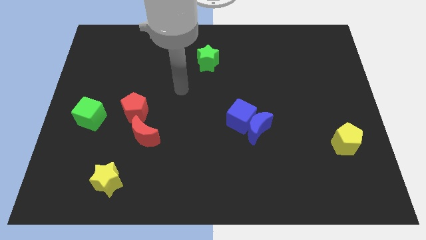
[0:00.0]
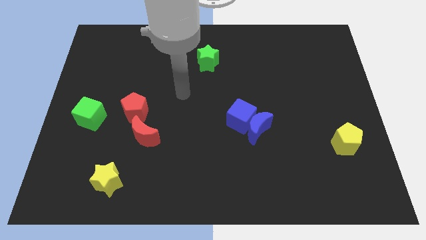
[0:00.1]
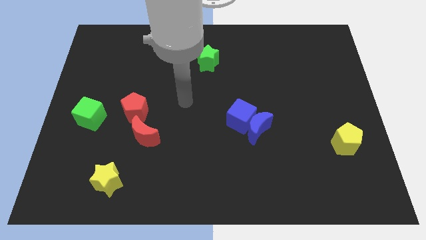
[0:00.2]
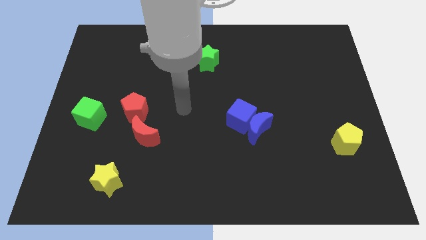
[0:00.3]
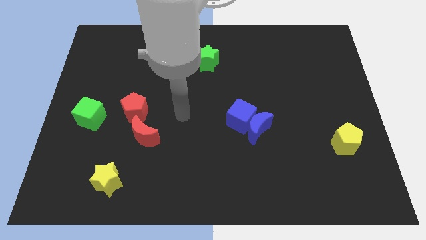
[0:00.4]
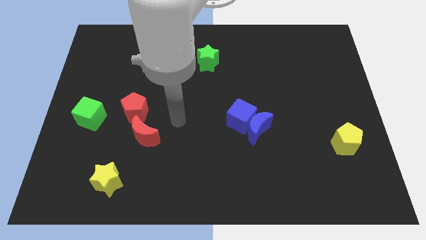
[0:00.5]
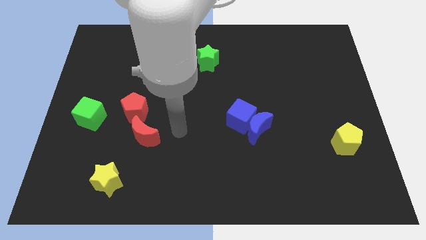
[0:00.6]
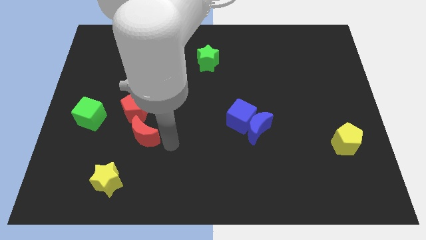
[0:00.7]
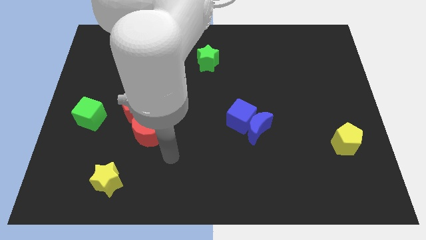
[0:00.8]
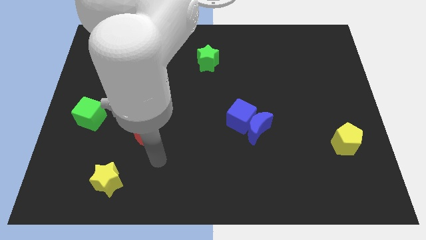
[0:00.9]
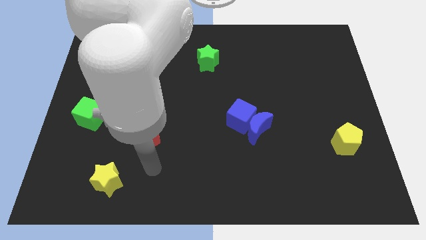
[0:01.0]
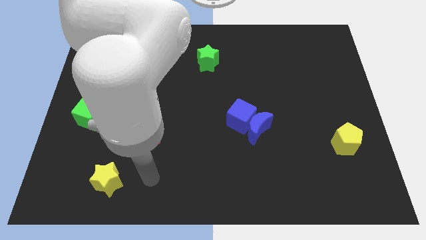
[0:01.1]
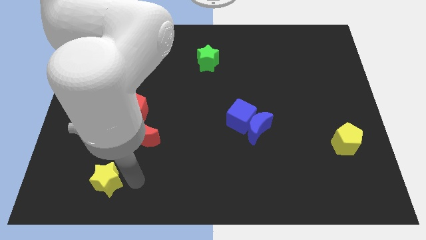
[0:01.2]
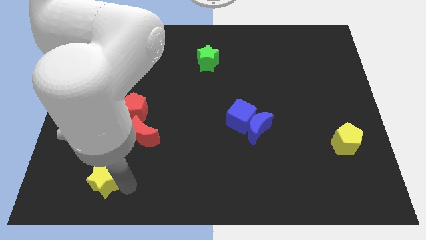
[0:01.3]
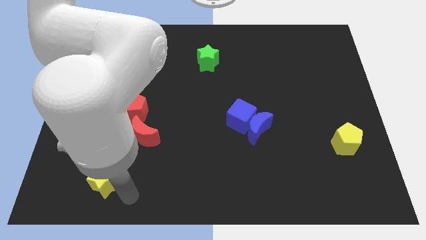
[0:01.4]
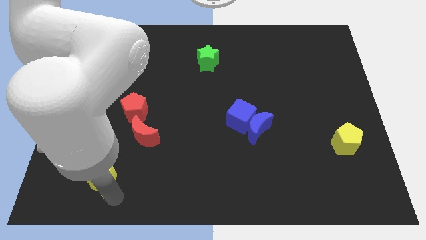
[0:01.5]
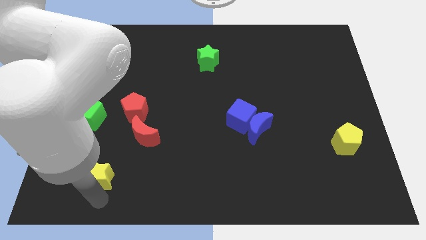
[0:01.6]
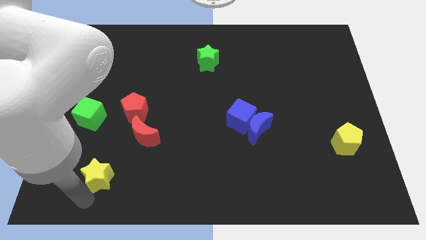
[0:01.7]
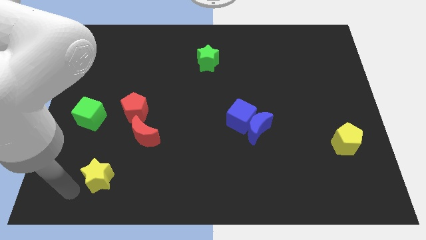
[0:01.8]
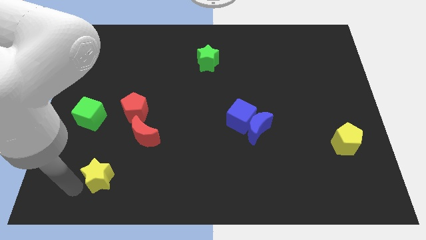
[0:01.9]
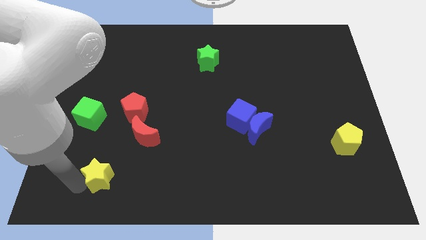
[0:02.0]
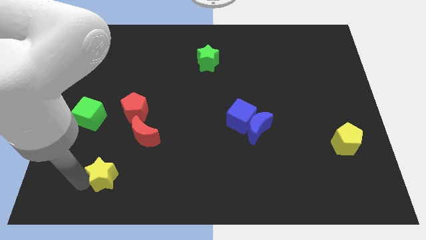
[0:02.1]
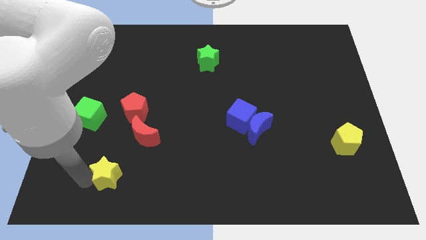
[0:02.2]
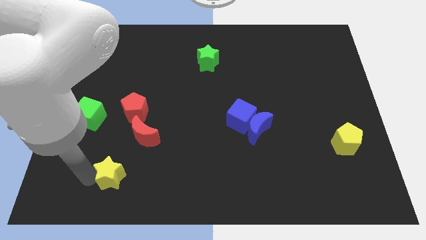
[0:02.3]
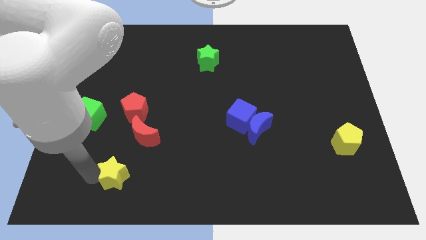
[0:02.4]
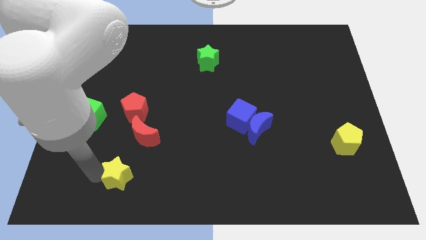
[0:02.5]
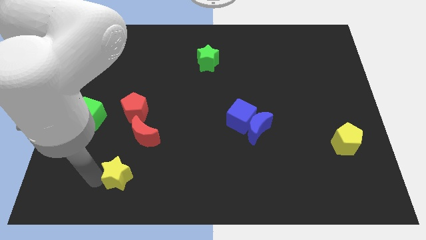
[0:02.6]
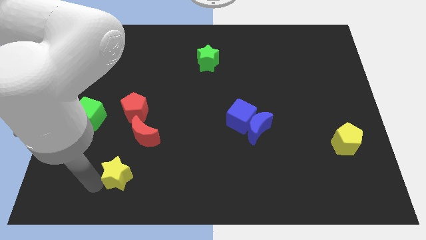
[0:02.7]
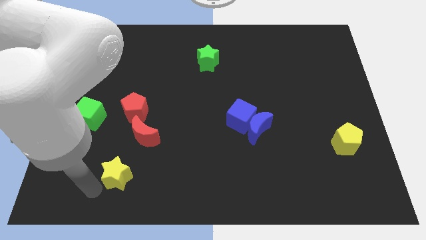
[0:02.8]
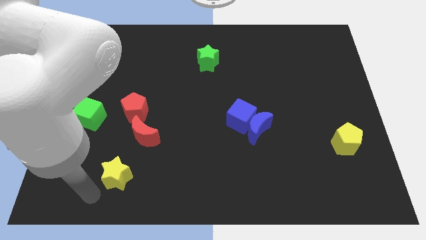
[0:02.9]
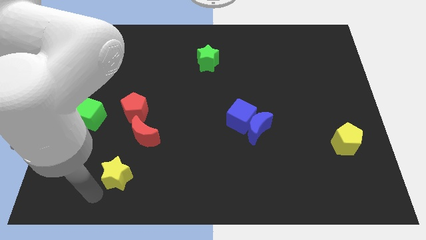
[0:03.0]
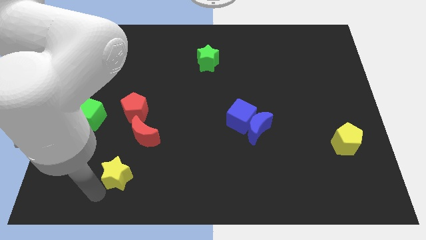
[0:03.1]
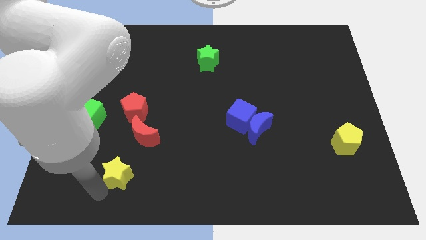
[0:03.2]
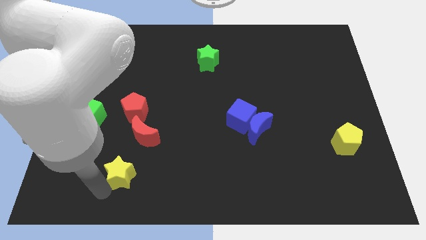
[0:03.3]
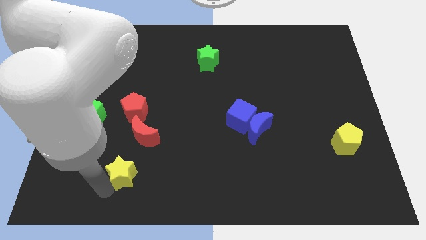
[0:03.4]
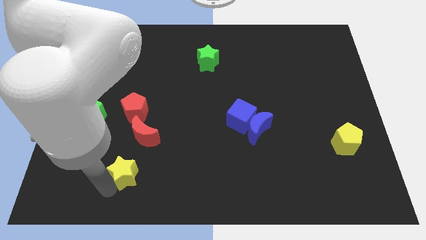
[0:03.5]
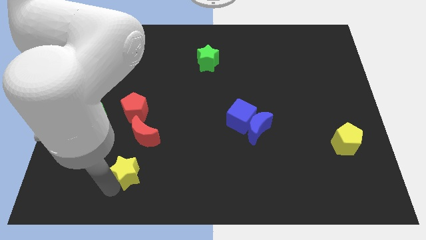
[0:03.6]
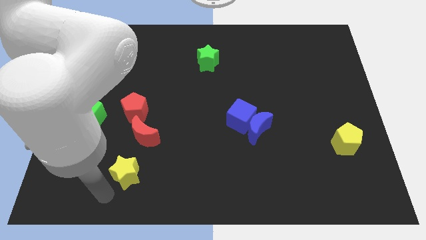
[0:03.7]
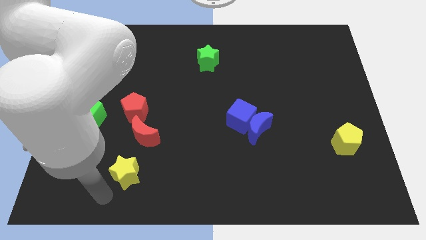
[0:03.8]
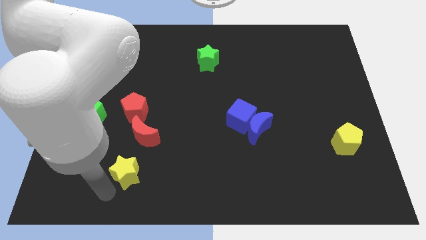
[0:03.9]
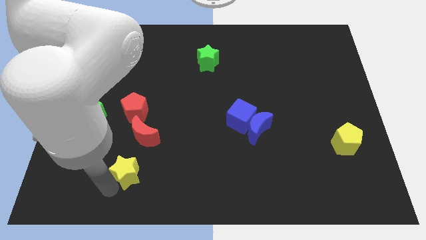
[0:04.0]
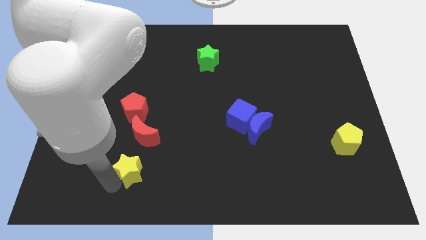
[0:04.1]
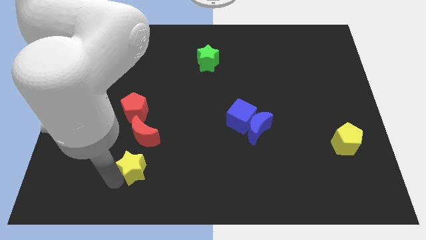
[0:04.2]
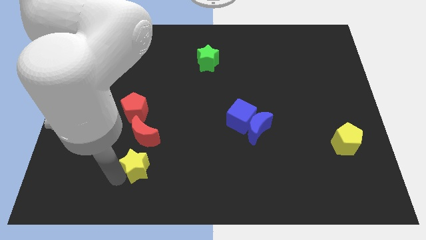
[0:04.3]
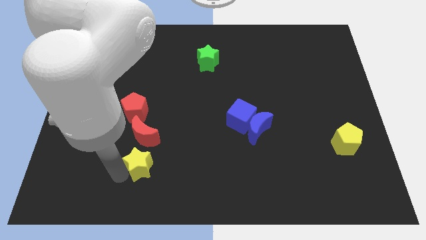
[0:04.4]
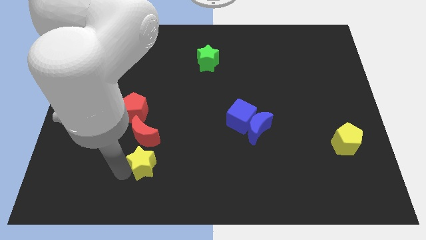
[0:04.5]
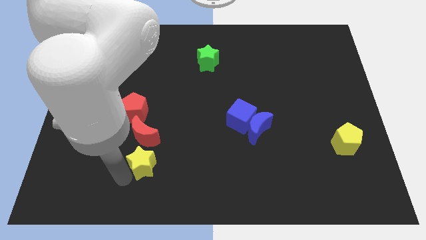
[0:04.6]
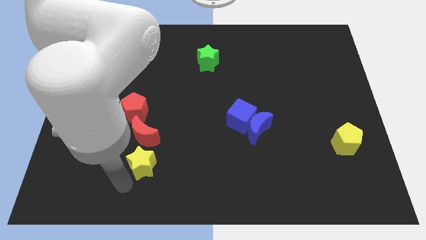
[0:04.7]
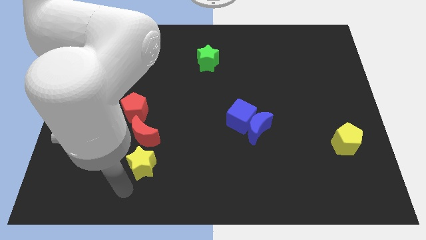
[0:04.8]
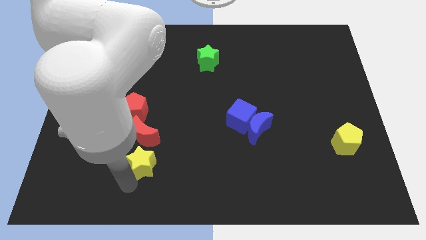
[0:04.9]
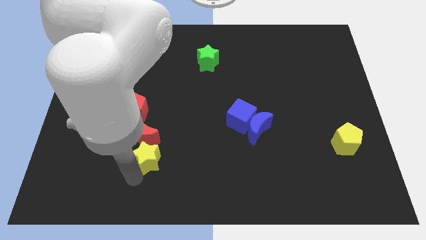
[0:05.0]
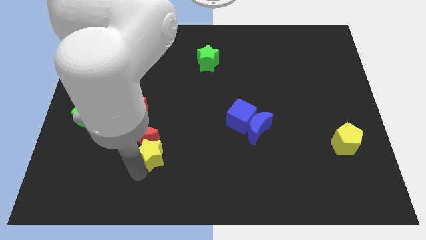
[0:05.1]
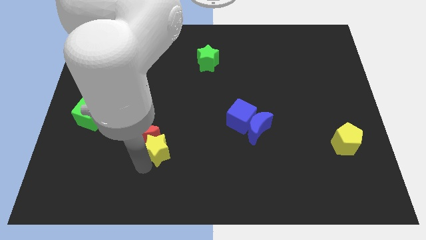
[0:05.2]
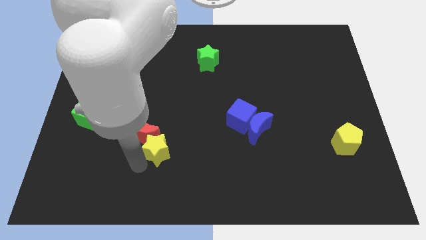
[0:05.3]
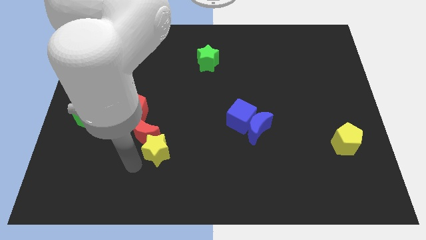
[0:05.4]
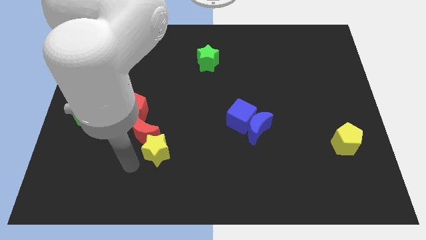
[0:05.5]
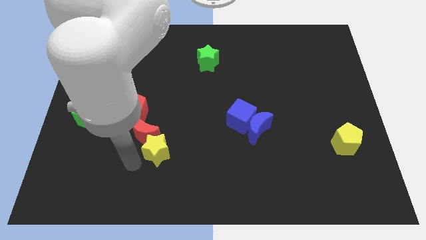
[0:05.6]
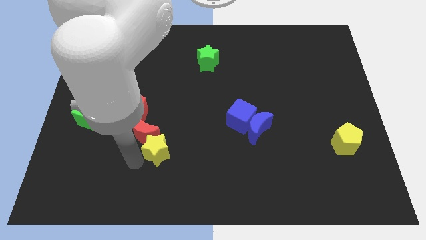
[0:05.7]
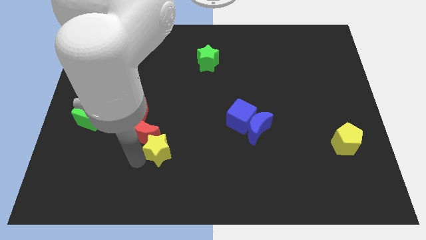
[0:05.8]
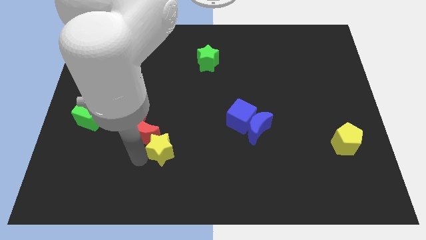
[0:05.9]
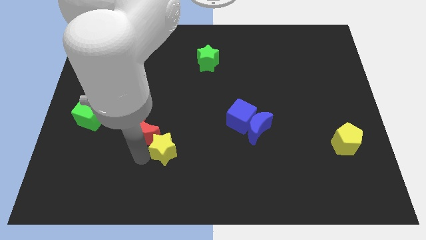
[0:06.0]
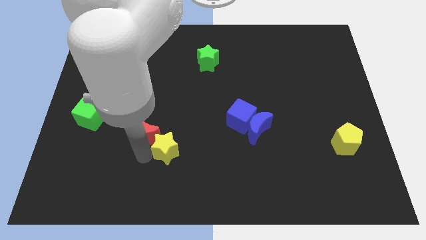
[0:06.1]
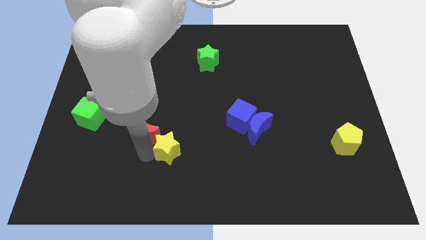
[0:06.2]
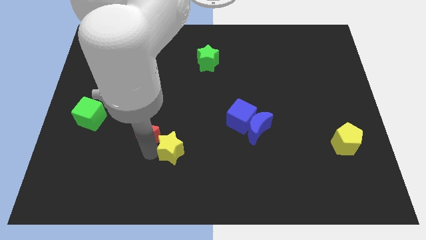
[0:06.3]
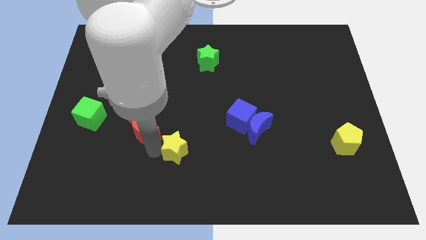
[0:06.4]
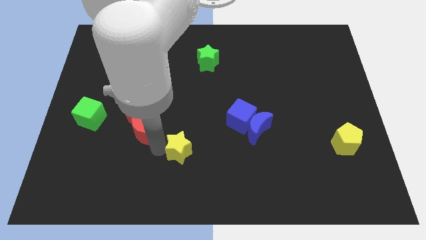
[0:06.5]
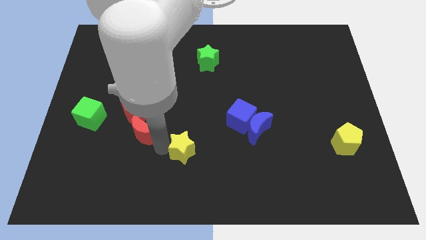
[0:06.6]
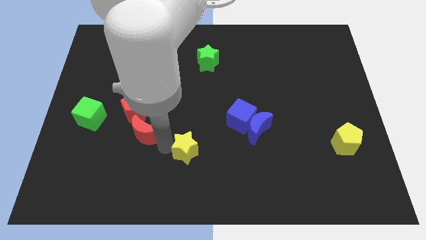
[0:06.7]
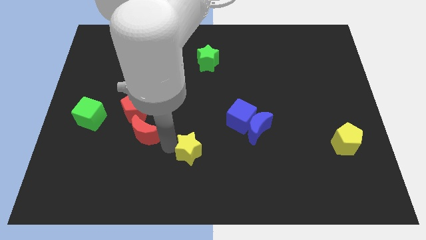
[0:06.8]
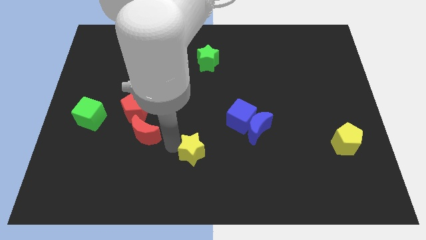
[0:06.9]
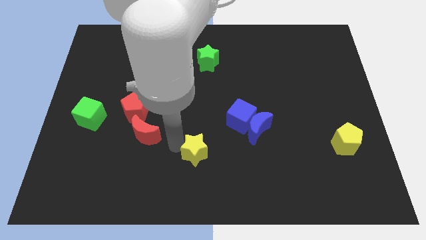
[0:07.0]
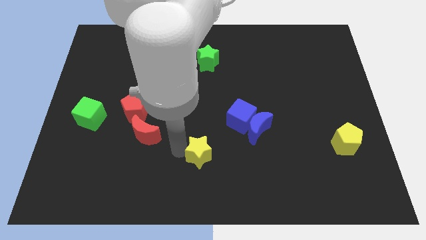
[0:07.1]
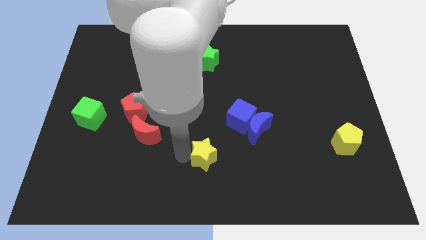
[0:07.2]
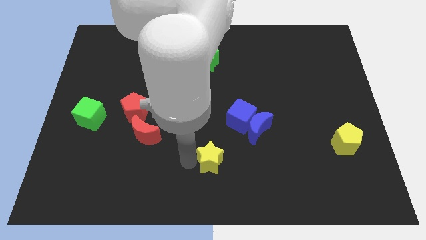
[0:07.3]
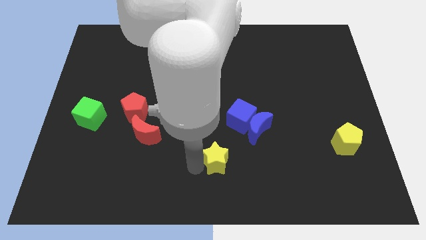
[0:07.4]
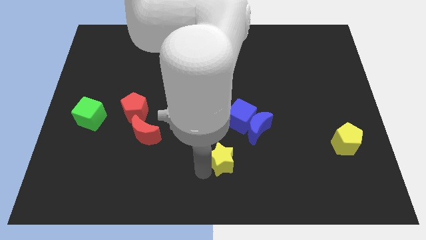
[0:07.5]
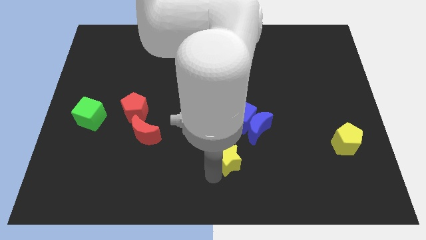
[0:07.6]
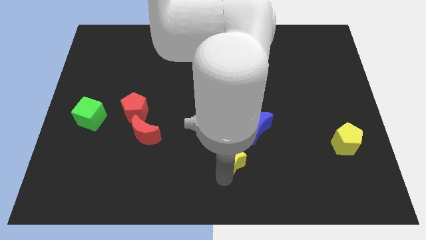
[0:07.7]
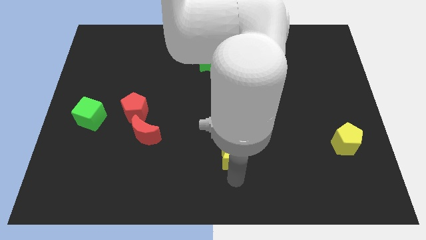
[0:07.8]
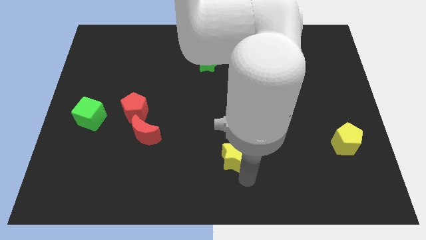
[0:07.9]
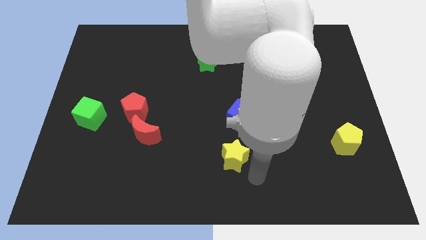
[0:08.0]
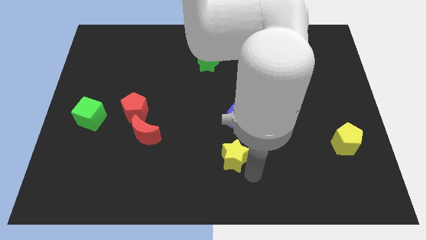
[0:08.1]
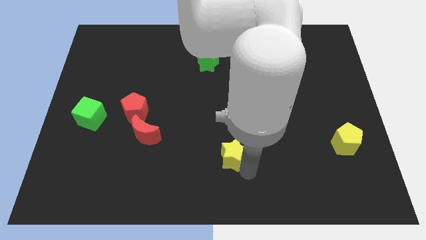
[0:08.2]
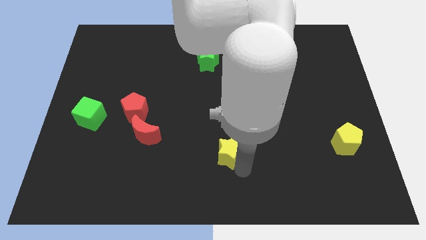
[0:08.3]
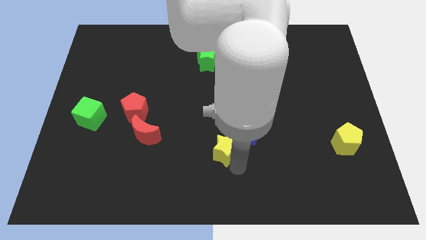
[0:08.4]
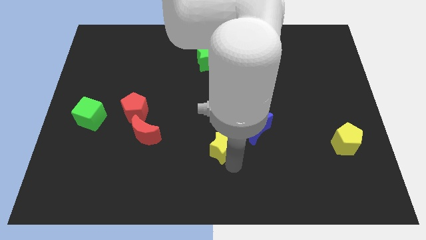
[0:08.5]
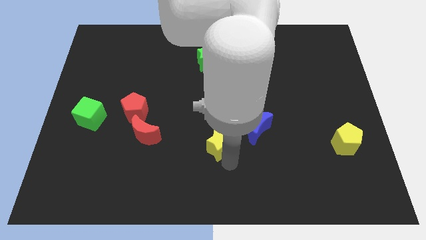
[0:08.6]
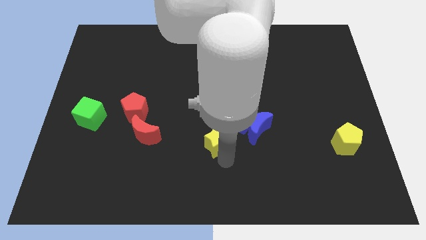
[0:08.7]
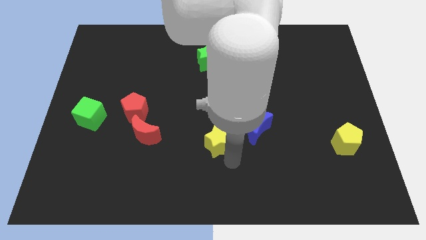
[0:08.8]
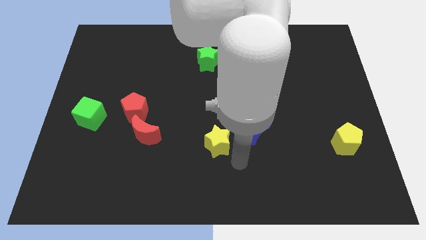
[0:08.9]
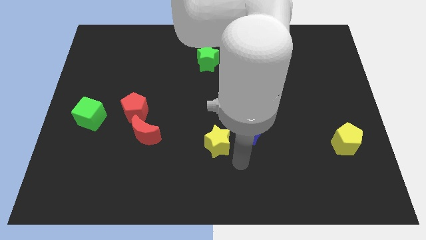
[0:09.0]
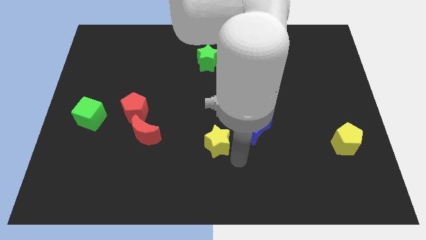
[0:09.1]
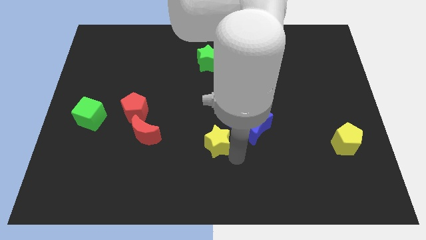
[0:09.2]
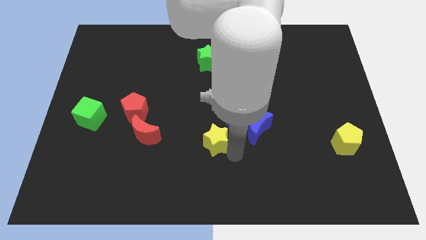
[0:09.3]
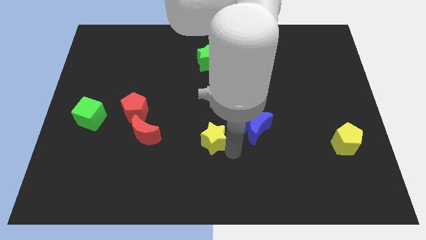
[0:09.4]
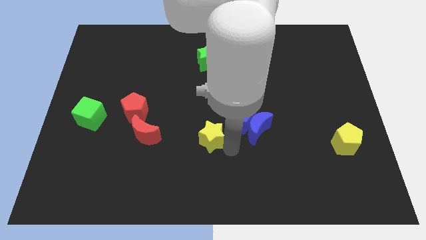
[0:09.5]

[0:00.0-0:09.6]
push the yellow star diagonally up and to the right
